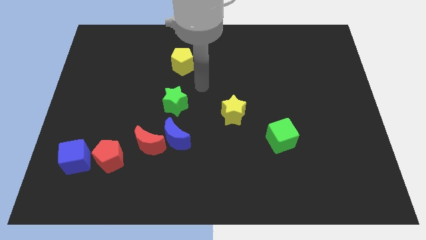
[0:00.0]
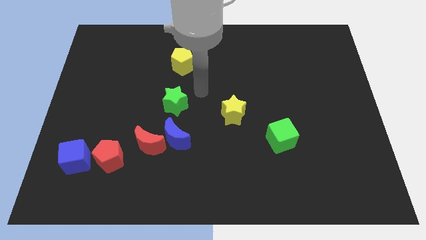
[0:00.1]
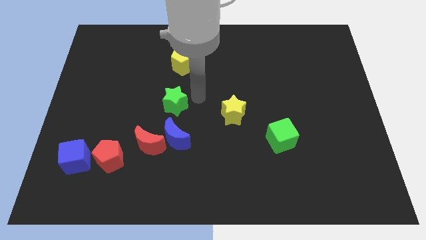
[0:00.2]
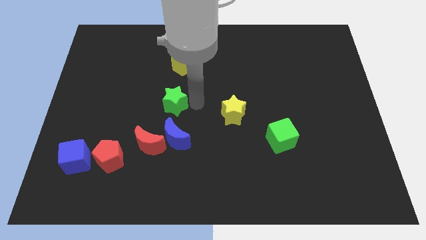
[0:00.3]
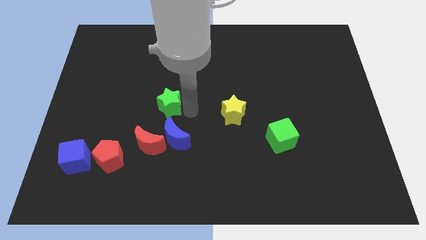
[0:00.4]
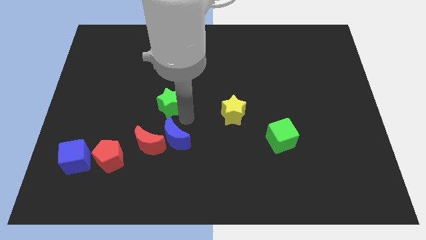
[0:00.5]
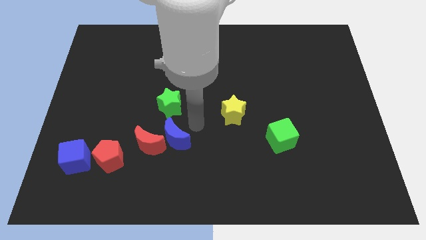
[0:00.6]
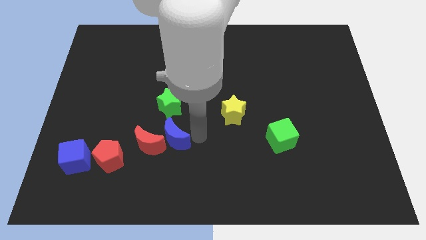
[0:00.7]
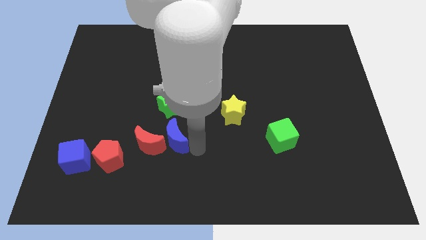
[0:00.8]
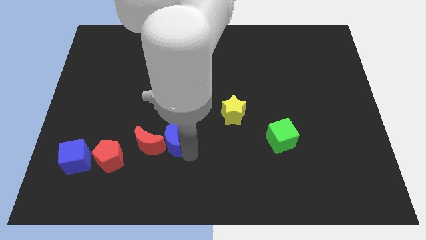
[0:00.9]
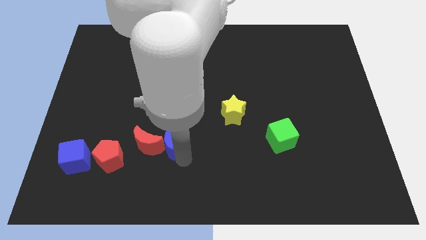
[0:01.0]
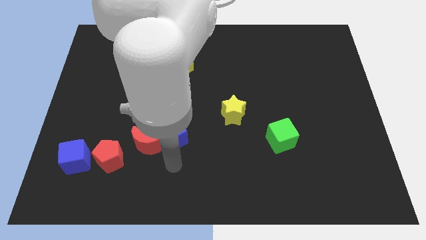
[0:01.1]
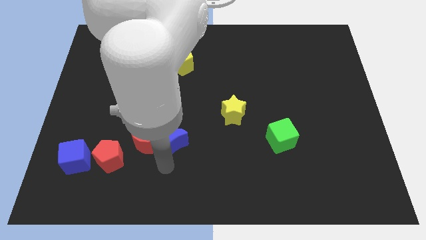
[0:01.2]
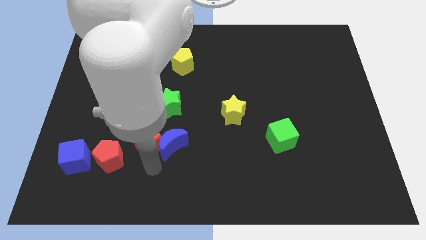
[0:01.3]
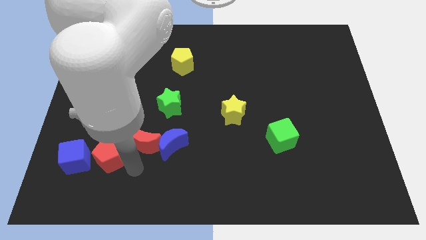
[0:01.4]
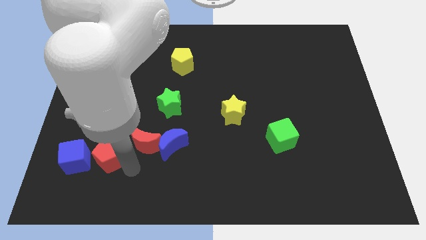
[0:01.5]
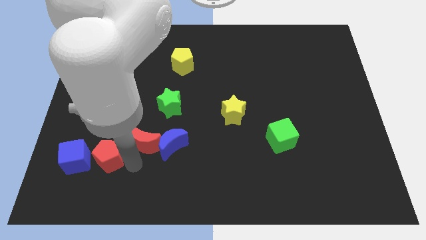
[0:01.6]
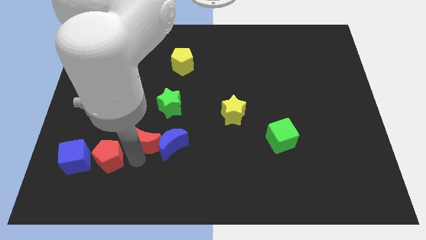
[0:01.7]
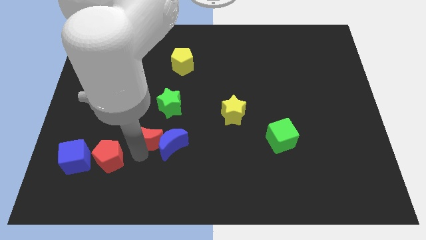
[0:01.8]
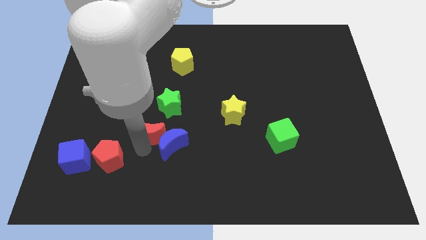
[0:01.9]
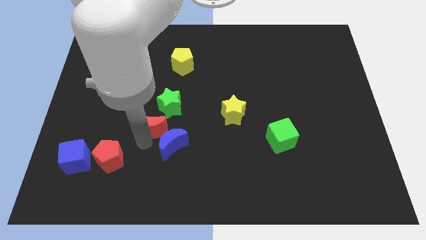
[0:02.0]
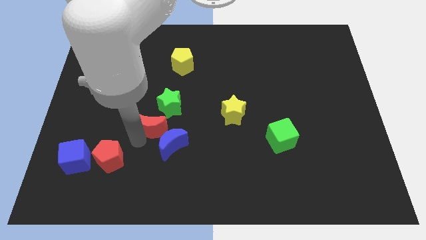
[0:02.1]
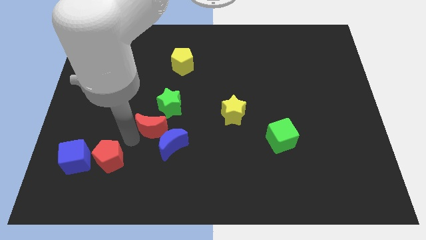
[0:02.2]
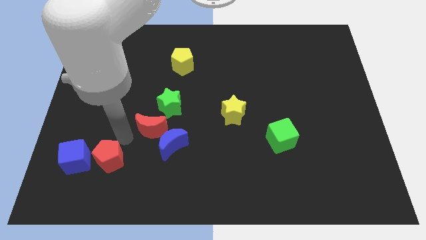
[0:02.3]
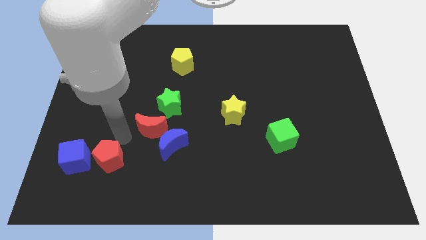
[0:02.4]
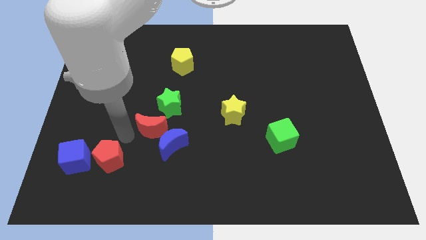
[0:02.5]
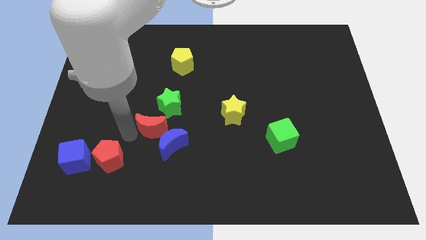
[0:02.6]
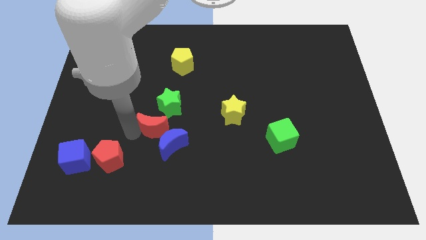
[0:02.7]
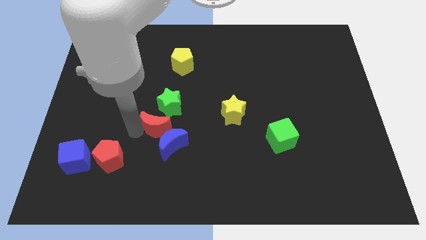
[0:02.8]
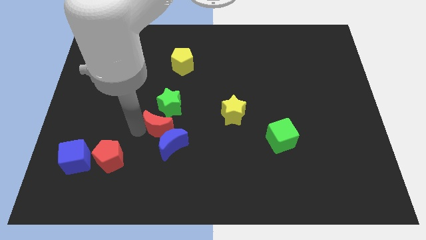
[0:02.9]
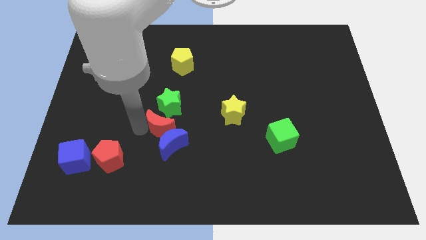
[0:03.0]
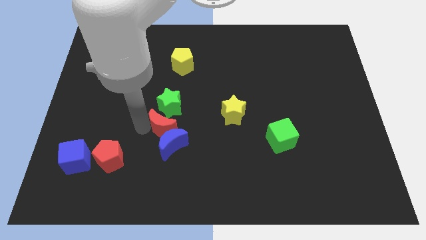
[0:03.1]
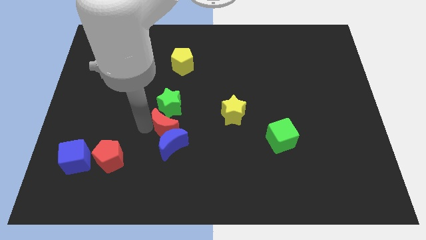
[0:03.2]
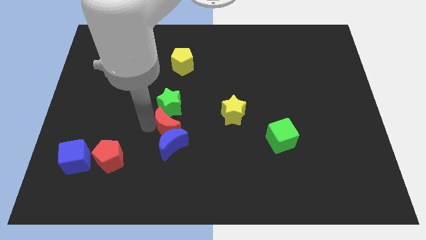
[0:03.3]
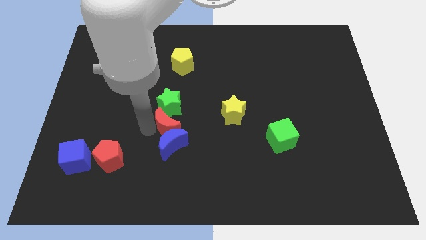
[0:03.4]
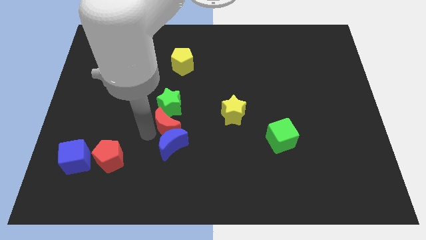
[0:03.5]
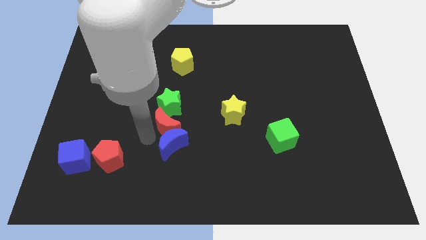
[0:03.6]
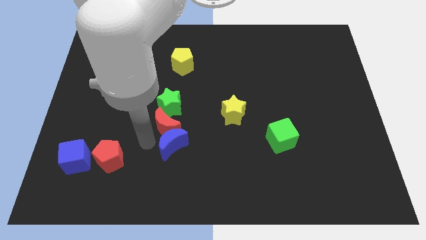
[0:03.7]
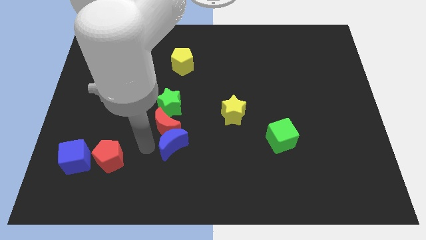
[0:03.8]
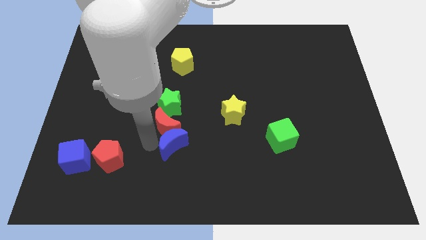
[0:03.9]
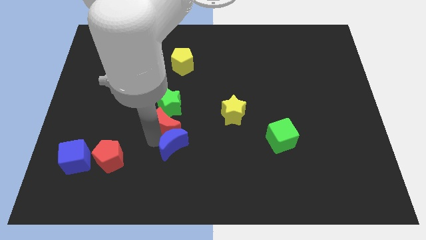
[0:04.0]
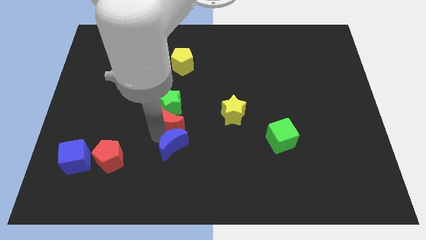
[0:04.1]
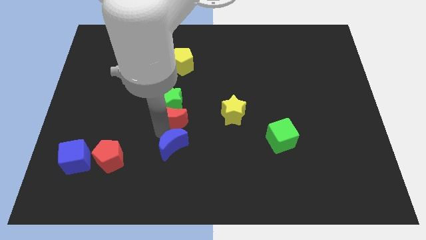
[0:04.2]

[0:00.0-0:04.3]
separate the red moon from the blue moon and red pentagon

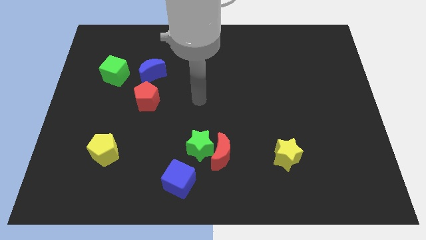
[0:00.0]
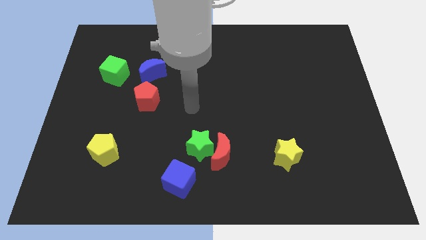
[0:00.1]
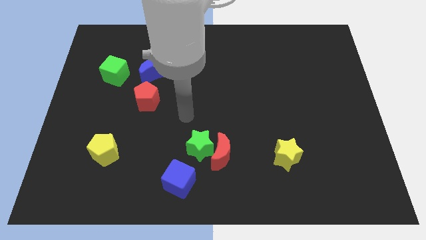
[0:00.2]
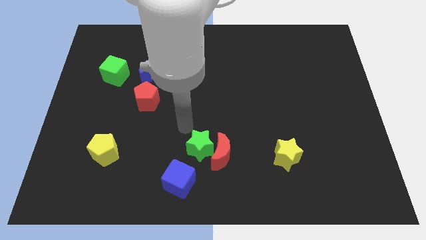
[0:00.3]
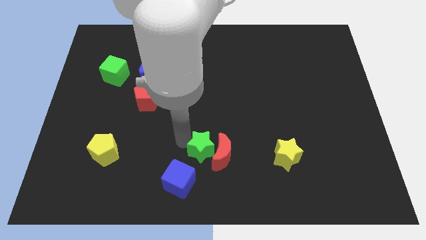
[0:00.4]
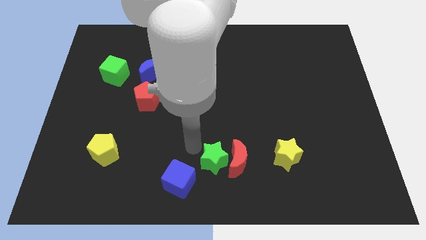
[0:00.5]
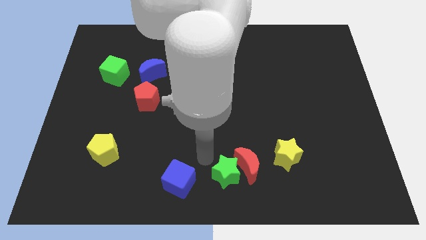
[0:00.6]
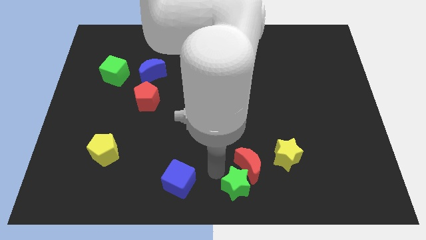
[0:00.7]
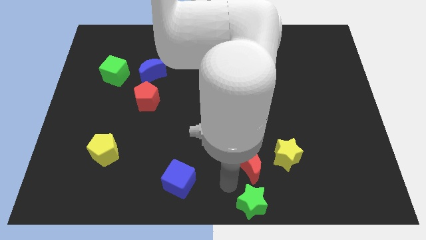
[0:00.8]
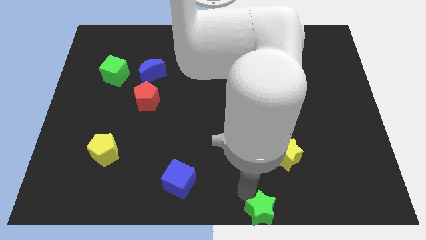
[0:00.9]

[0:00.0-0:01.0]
separate the red moon from the green star

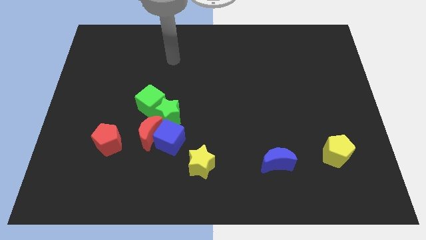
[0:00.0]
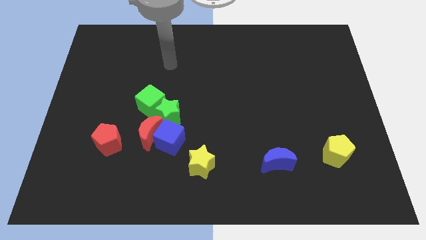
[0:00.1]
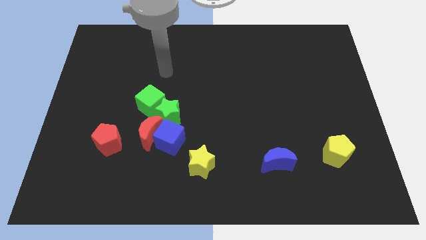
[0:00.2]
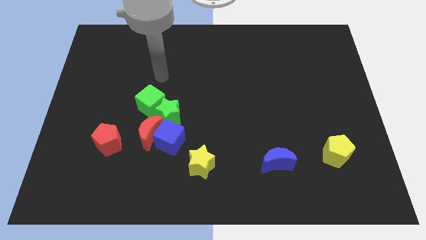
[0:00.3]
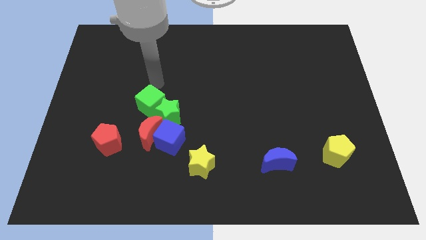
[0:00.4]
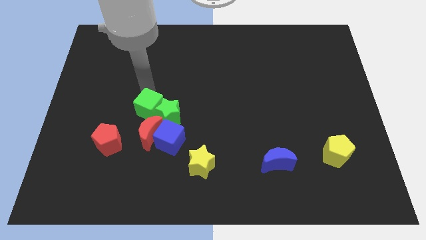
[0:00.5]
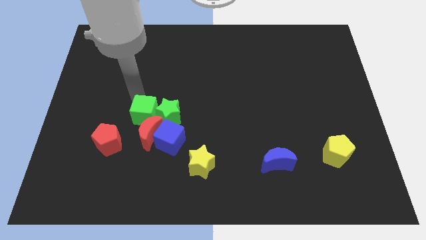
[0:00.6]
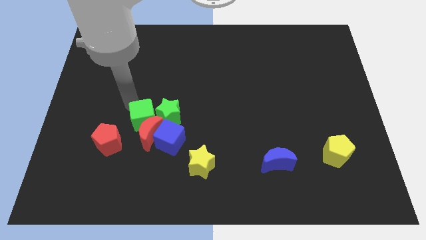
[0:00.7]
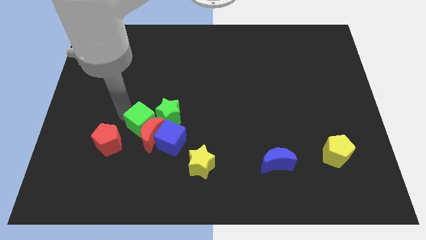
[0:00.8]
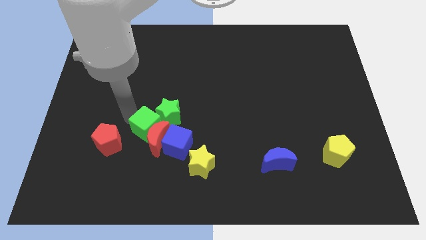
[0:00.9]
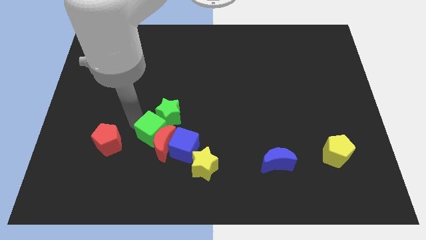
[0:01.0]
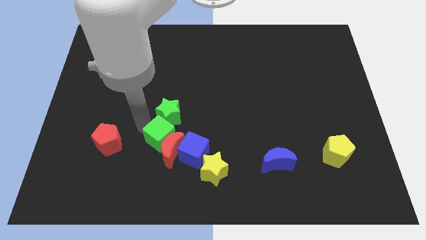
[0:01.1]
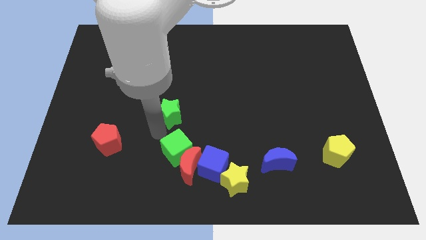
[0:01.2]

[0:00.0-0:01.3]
move the green star away from the green cube, blue cube, and red moon

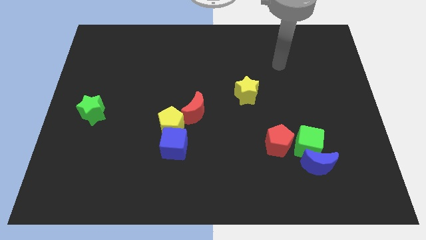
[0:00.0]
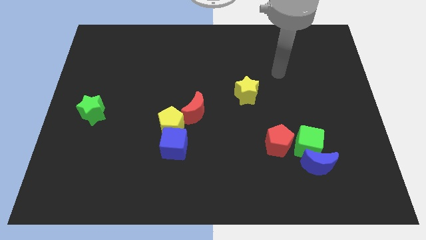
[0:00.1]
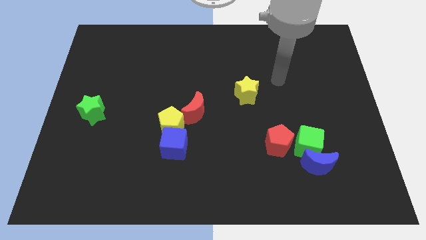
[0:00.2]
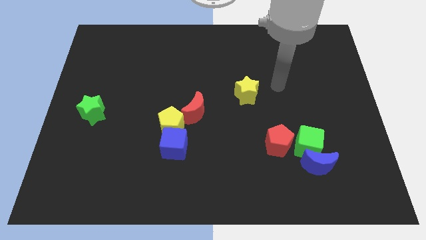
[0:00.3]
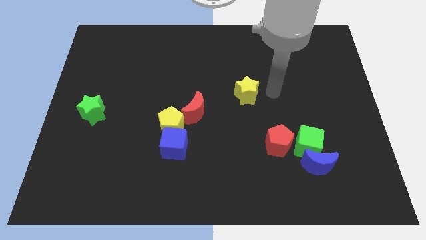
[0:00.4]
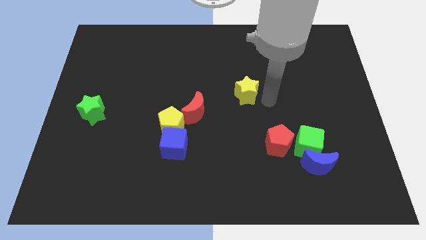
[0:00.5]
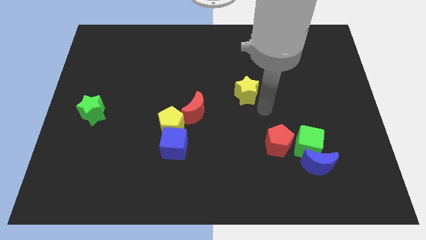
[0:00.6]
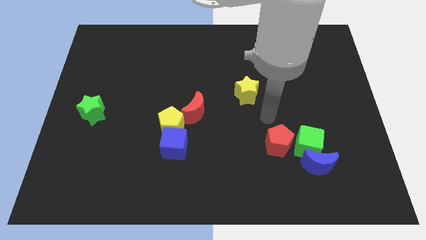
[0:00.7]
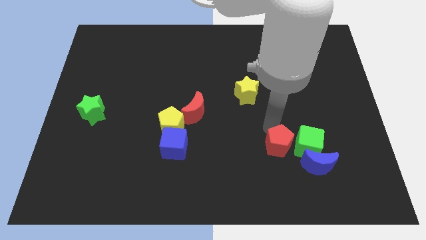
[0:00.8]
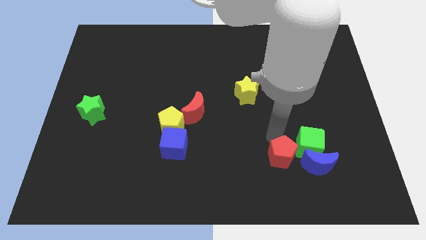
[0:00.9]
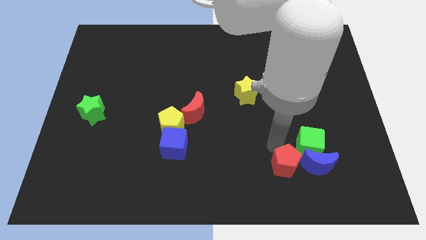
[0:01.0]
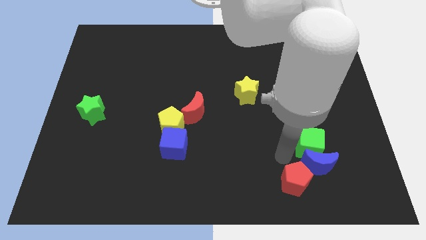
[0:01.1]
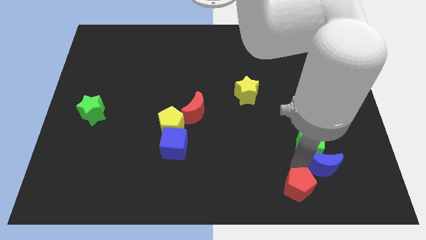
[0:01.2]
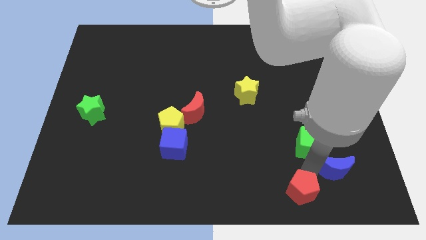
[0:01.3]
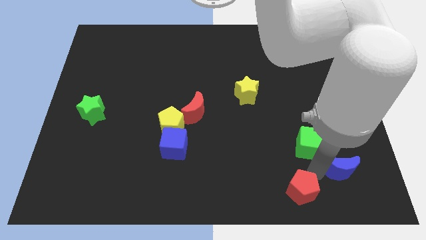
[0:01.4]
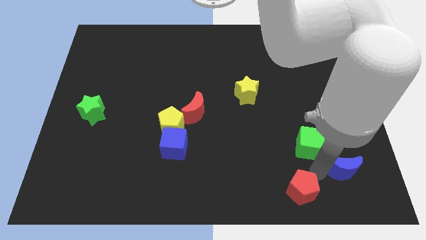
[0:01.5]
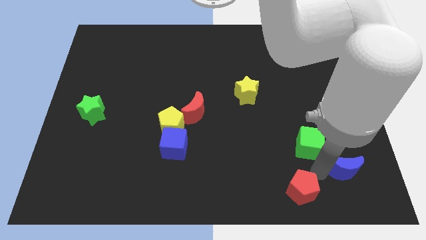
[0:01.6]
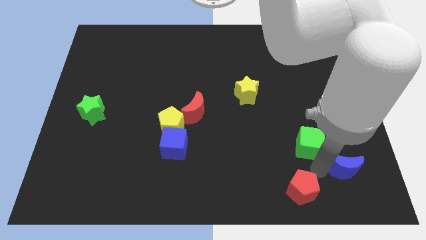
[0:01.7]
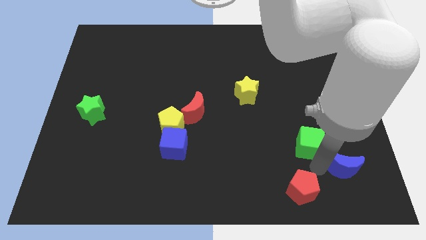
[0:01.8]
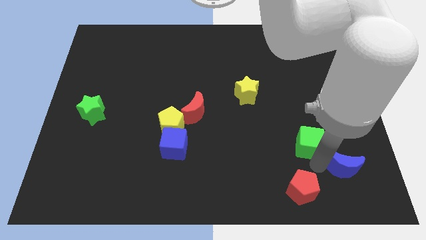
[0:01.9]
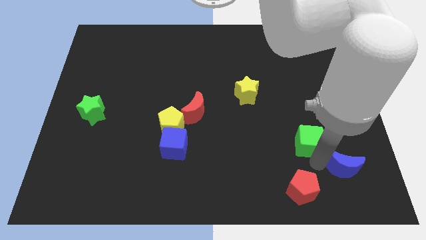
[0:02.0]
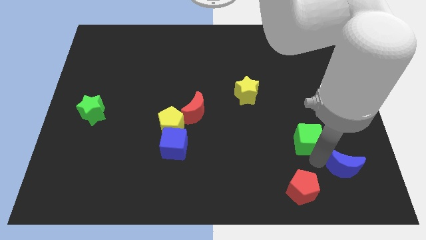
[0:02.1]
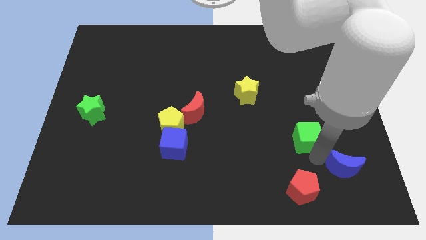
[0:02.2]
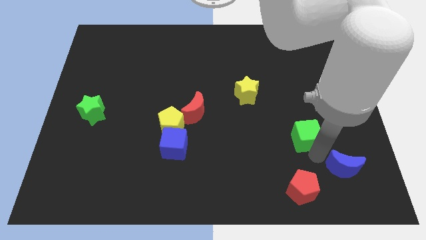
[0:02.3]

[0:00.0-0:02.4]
move the green cube away from the blue moon and red pentagon

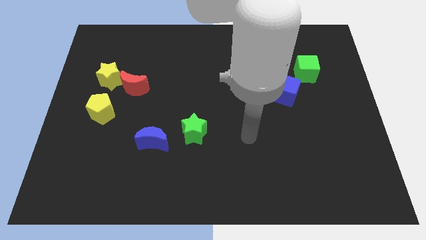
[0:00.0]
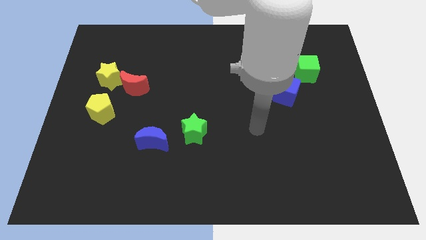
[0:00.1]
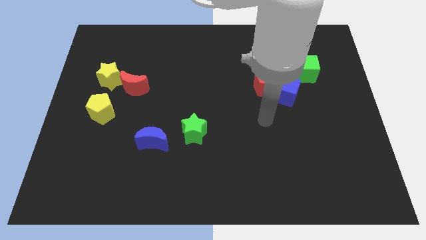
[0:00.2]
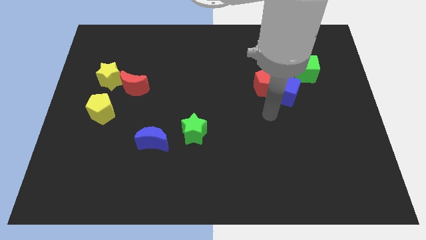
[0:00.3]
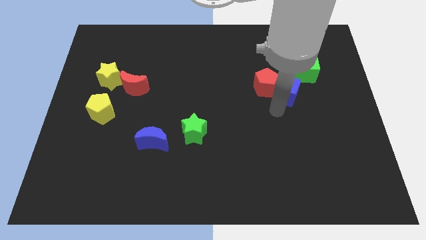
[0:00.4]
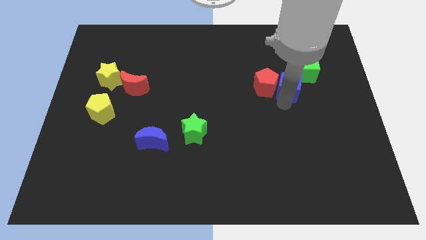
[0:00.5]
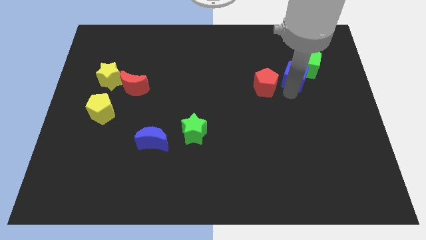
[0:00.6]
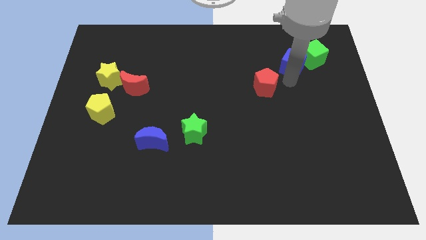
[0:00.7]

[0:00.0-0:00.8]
separate the red pentagon from the blue cube
